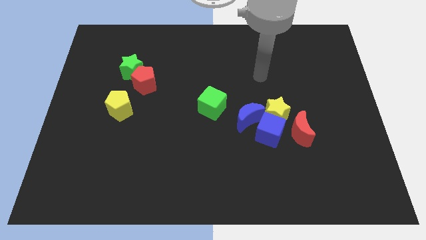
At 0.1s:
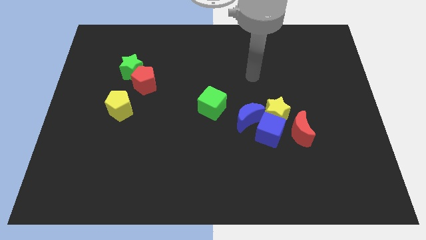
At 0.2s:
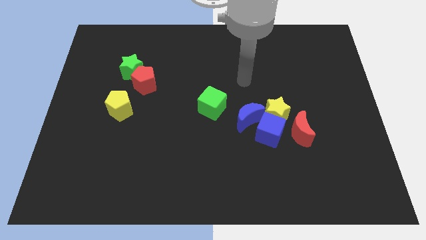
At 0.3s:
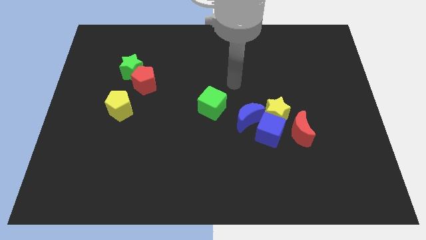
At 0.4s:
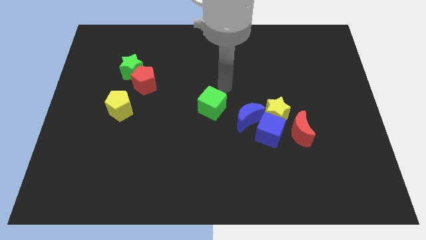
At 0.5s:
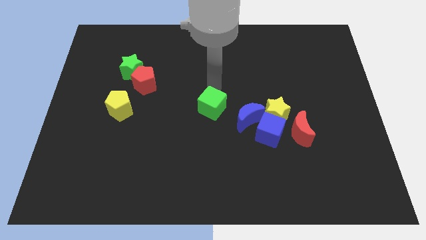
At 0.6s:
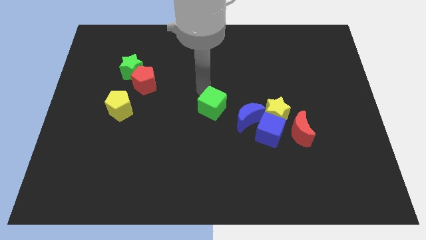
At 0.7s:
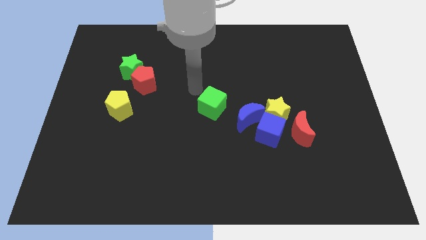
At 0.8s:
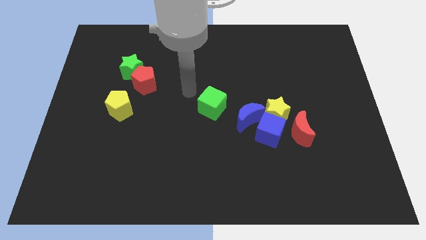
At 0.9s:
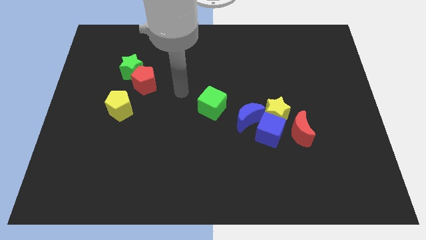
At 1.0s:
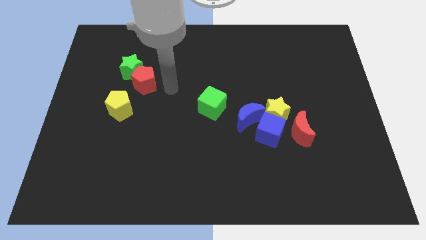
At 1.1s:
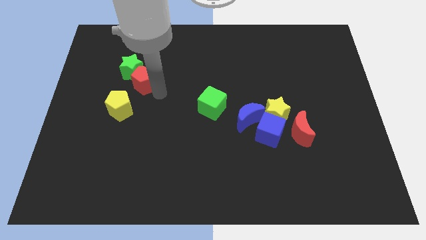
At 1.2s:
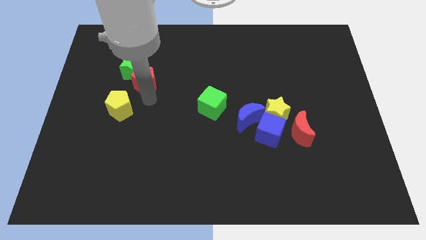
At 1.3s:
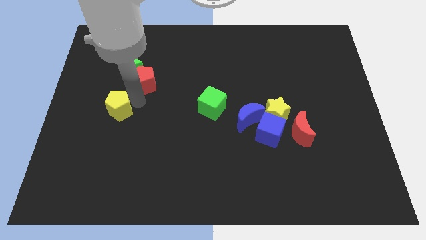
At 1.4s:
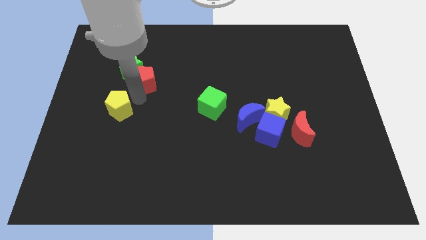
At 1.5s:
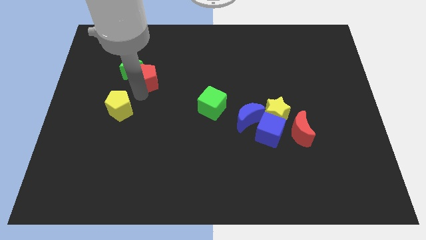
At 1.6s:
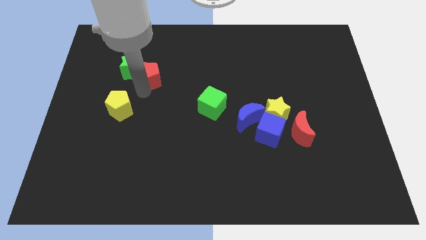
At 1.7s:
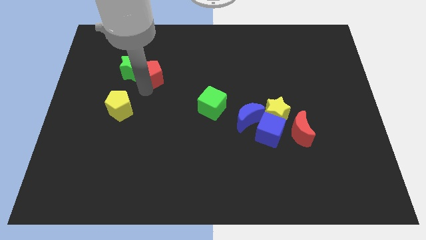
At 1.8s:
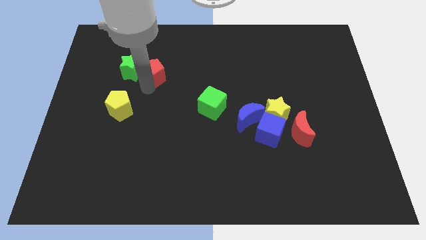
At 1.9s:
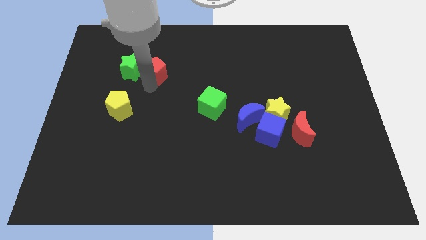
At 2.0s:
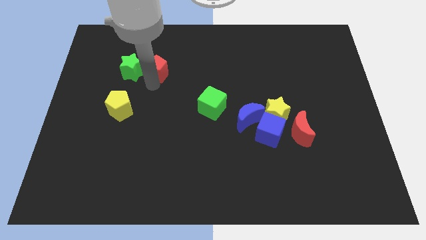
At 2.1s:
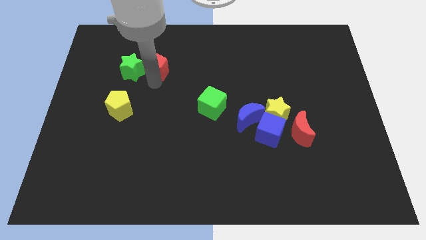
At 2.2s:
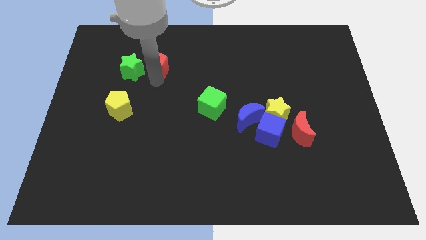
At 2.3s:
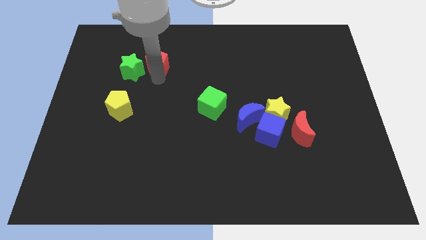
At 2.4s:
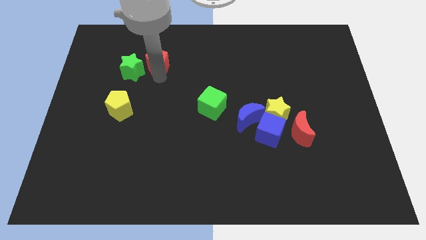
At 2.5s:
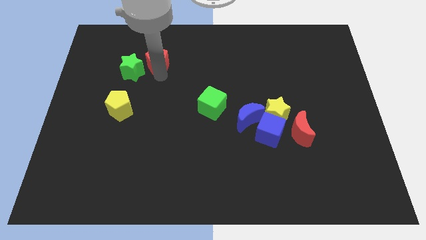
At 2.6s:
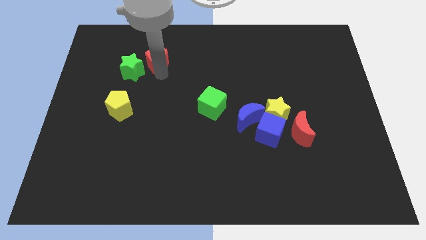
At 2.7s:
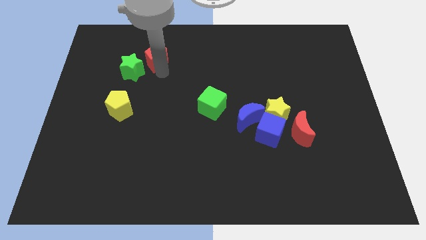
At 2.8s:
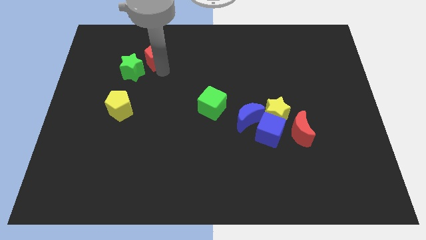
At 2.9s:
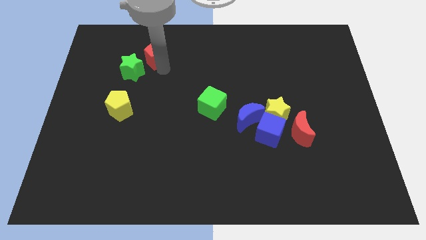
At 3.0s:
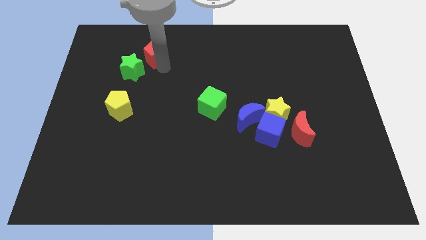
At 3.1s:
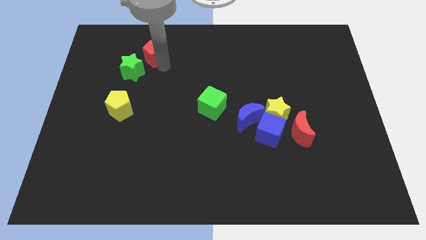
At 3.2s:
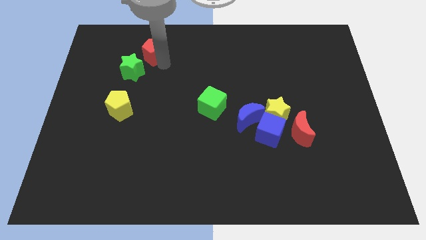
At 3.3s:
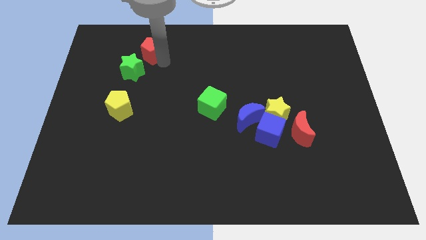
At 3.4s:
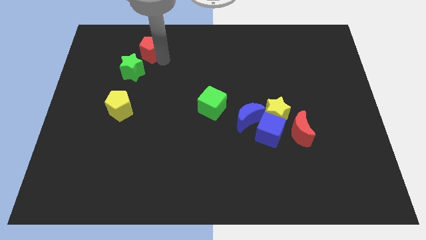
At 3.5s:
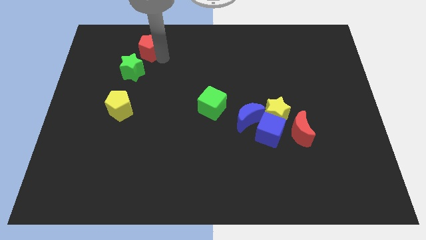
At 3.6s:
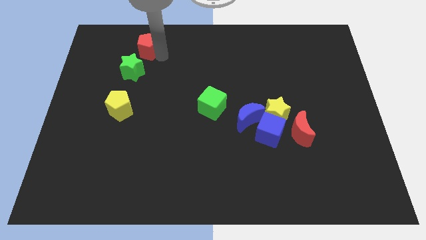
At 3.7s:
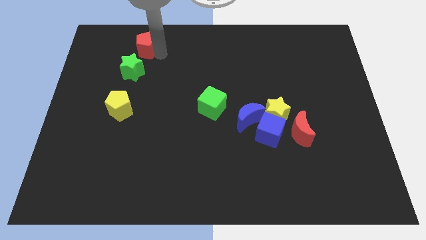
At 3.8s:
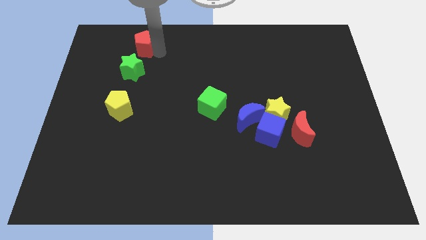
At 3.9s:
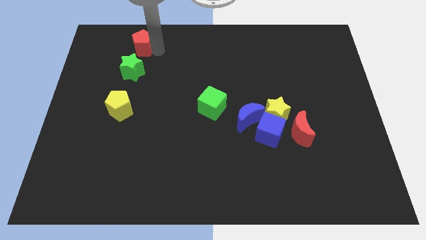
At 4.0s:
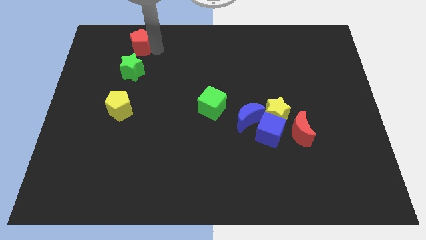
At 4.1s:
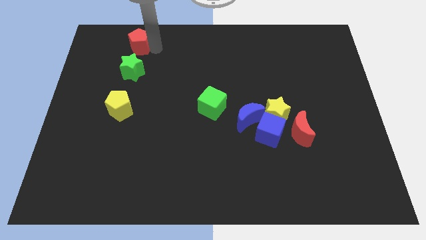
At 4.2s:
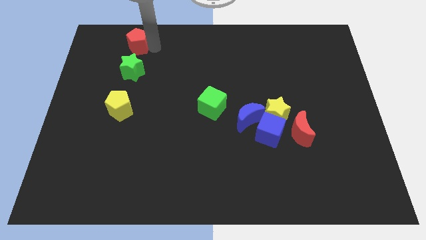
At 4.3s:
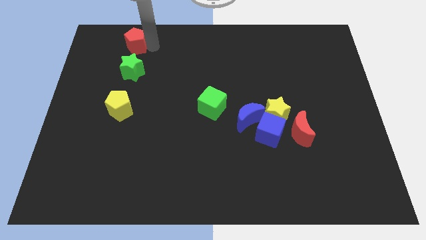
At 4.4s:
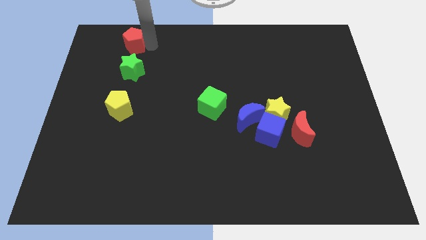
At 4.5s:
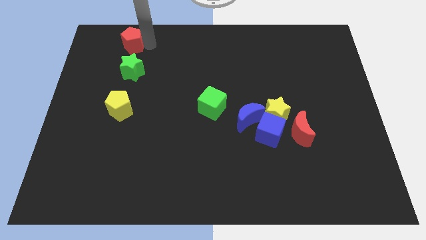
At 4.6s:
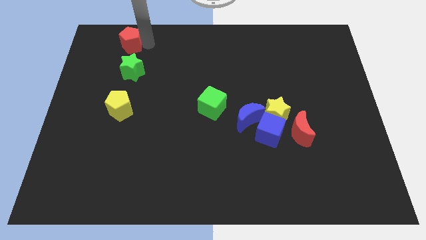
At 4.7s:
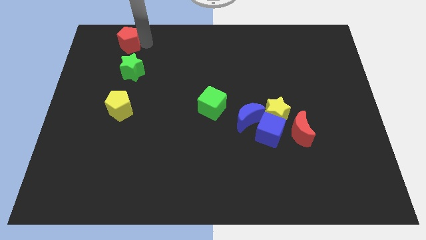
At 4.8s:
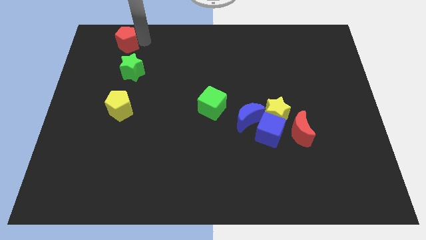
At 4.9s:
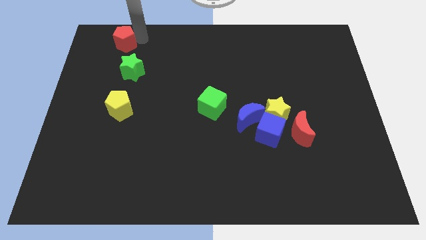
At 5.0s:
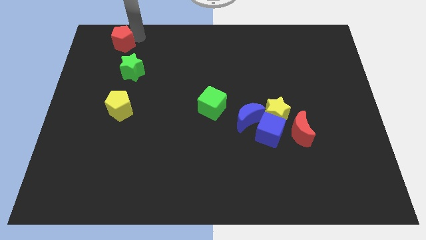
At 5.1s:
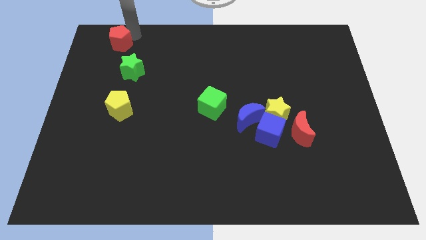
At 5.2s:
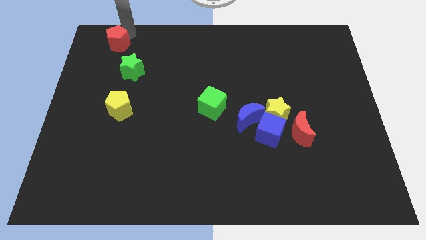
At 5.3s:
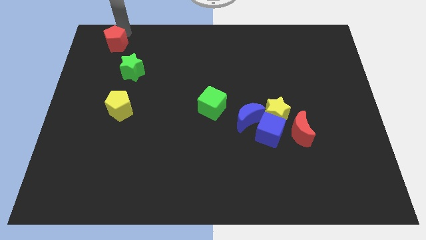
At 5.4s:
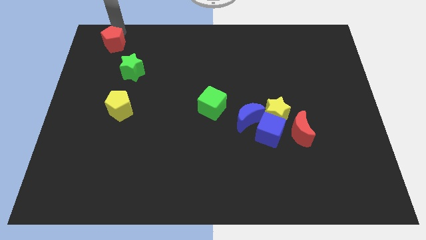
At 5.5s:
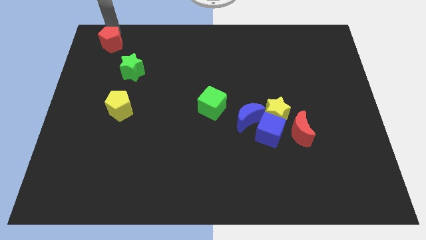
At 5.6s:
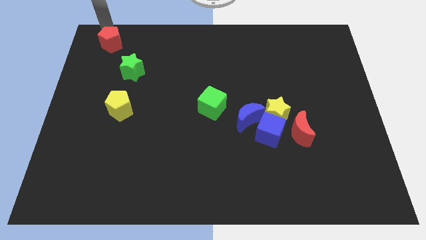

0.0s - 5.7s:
slide the red pentagon to the top left of the board
